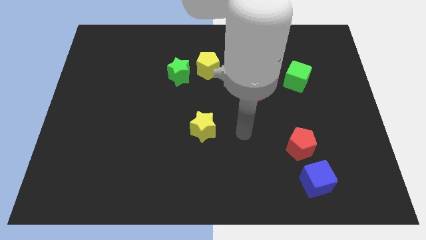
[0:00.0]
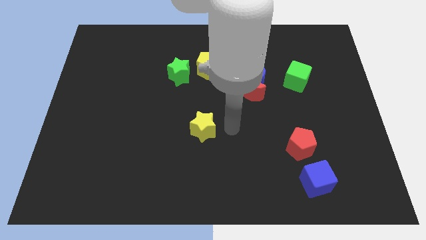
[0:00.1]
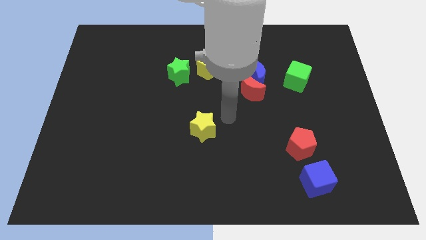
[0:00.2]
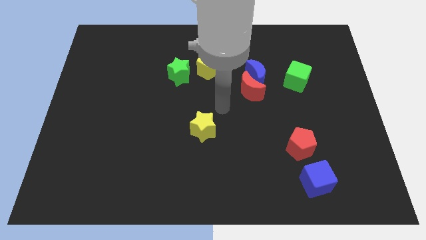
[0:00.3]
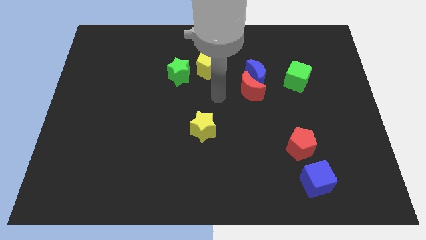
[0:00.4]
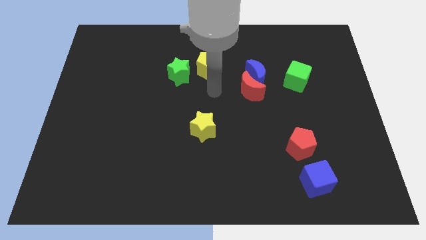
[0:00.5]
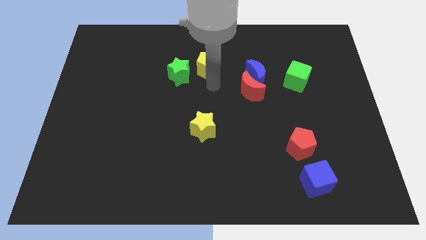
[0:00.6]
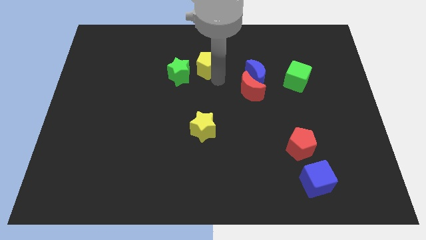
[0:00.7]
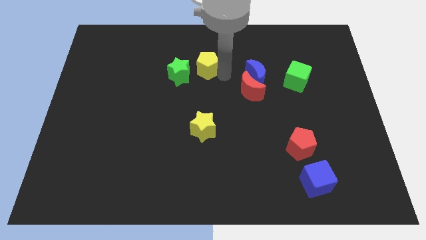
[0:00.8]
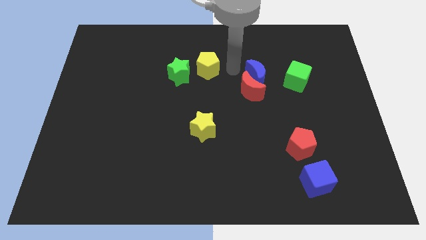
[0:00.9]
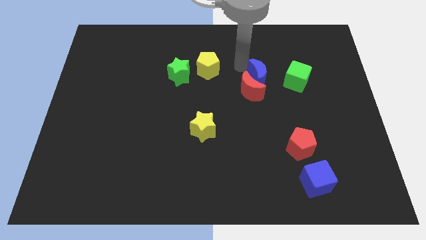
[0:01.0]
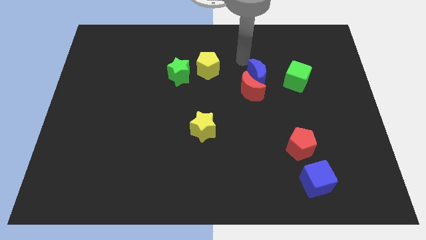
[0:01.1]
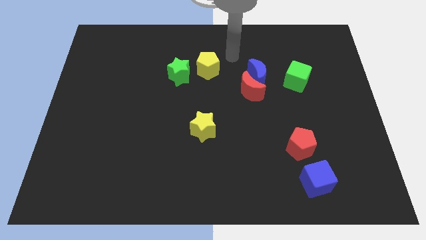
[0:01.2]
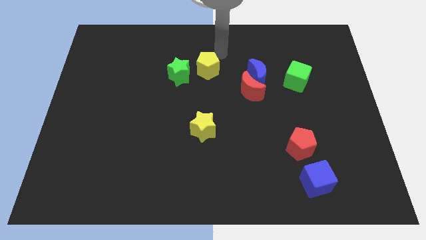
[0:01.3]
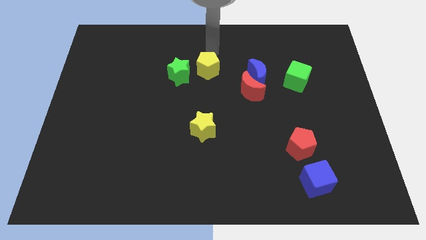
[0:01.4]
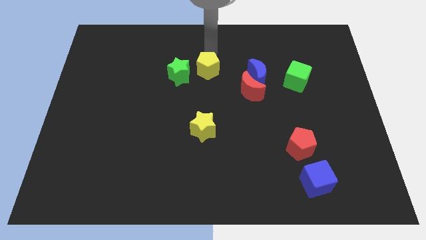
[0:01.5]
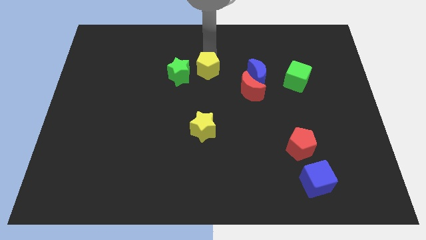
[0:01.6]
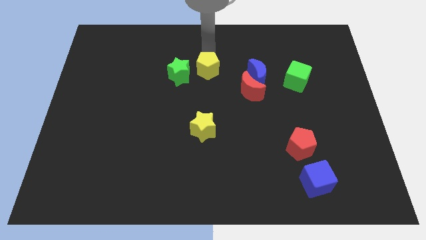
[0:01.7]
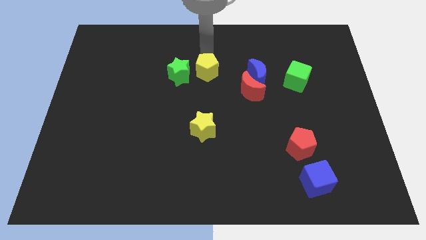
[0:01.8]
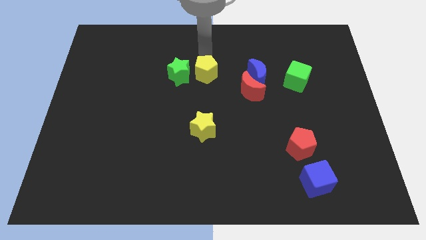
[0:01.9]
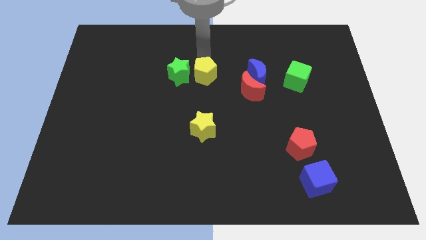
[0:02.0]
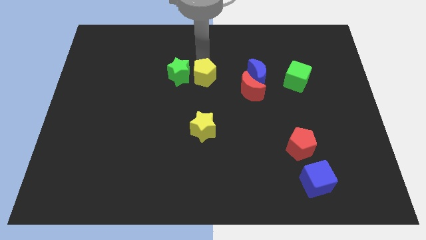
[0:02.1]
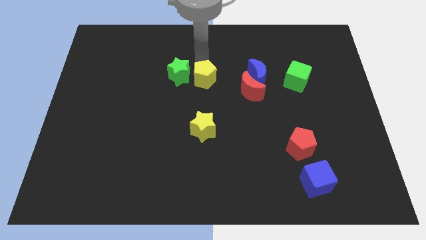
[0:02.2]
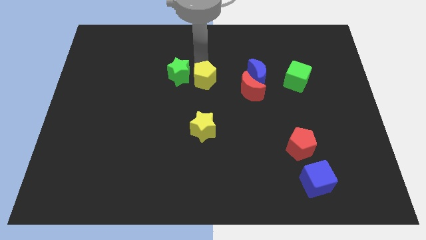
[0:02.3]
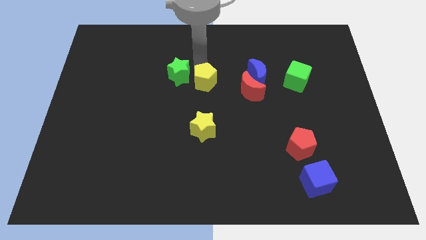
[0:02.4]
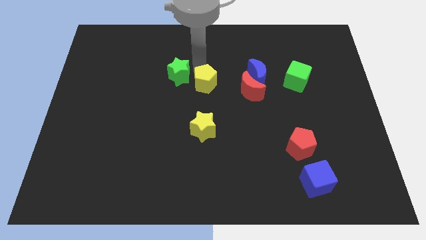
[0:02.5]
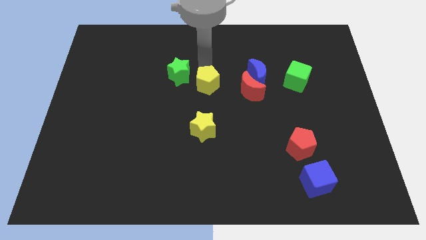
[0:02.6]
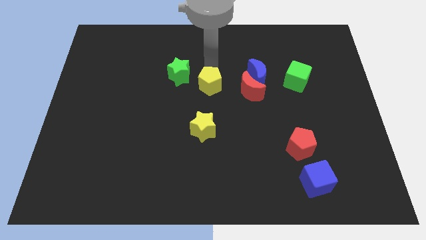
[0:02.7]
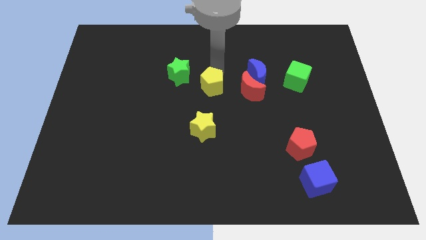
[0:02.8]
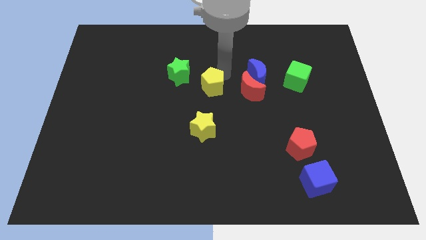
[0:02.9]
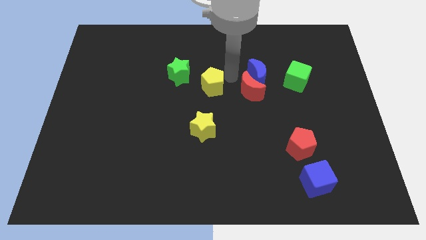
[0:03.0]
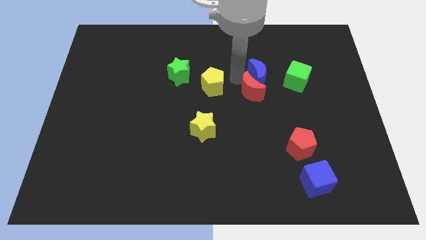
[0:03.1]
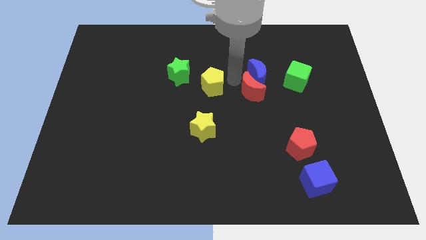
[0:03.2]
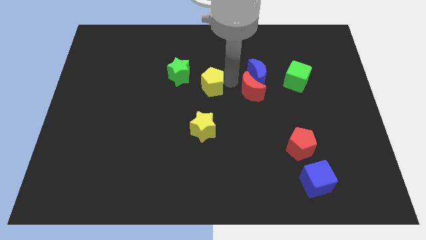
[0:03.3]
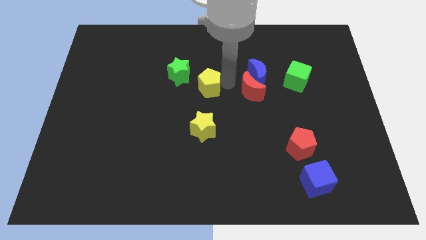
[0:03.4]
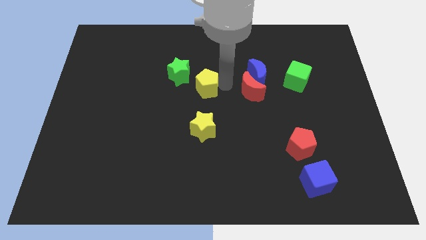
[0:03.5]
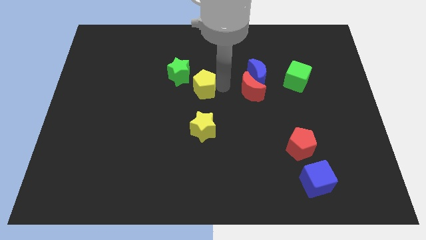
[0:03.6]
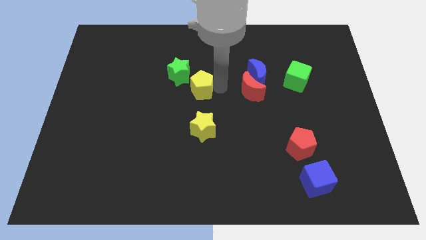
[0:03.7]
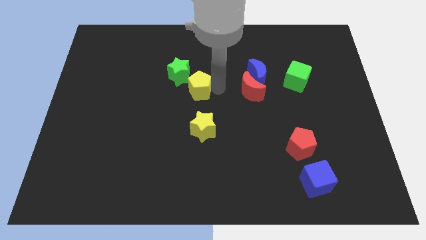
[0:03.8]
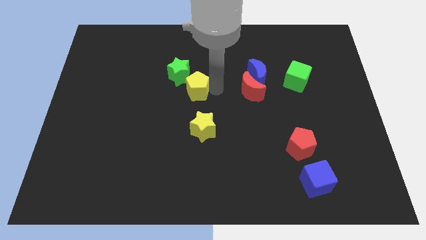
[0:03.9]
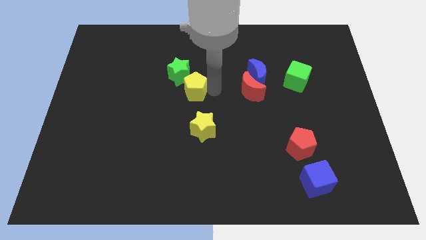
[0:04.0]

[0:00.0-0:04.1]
push the yellow pentagon down and then to the left a little bit

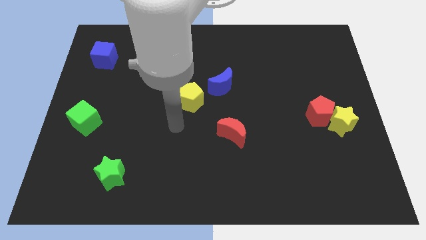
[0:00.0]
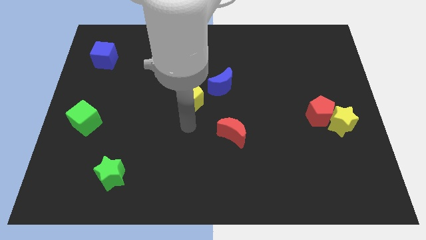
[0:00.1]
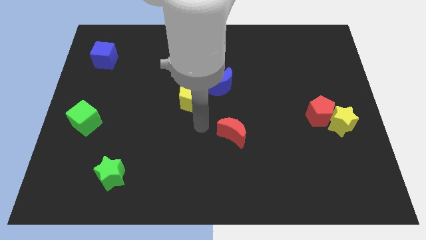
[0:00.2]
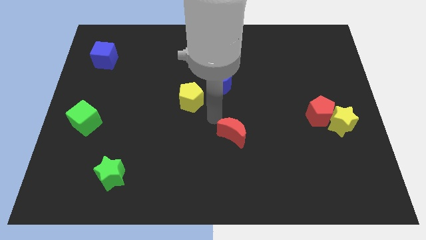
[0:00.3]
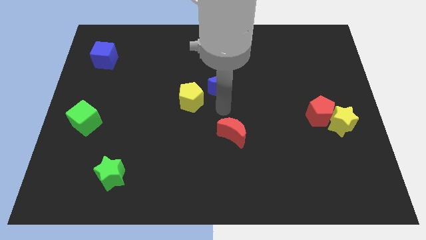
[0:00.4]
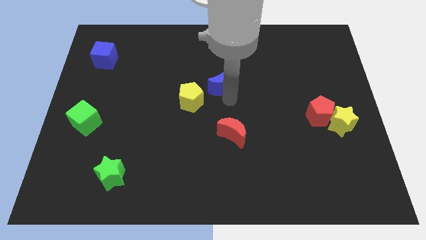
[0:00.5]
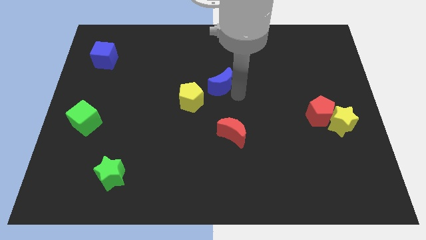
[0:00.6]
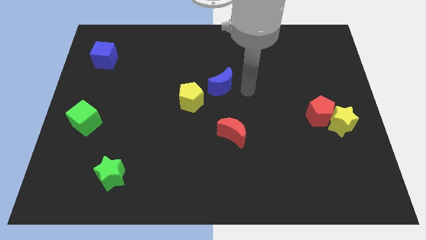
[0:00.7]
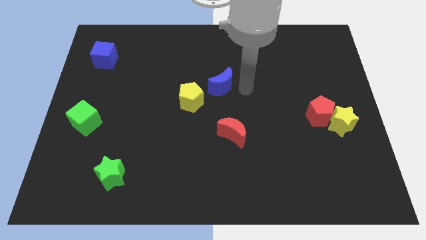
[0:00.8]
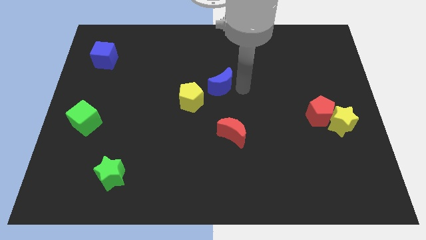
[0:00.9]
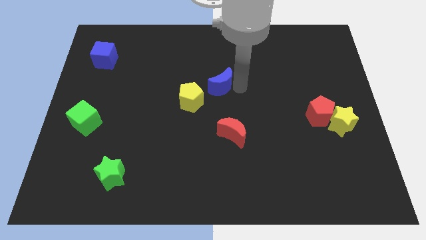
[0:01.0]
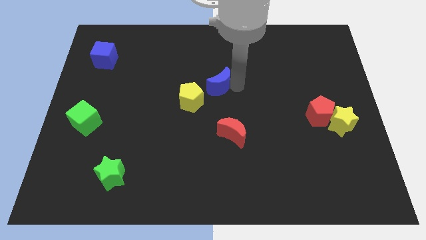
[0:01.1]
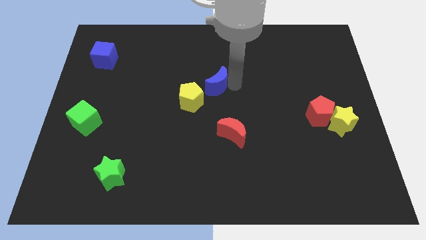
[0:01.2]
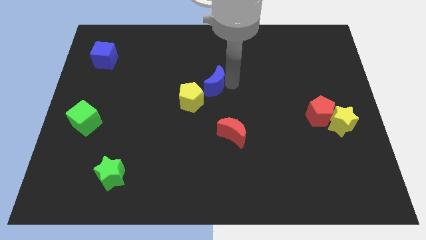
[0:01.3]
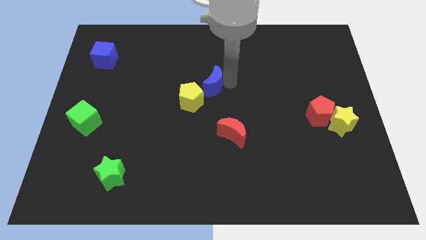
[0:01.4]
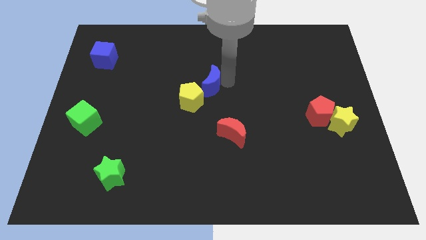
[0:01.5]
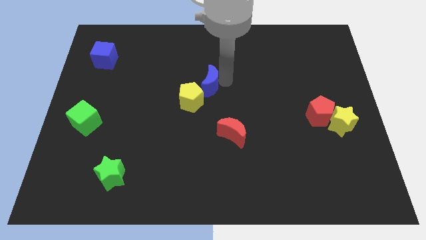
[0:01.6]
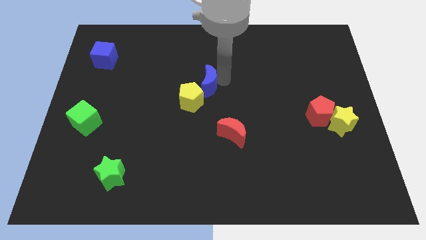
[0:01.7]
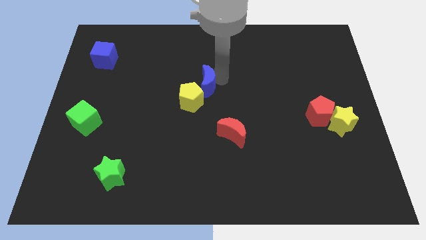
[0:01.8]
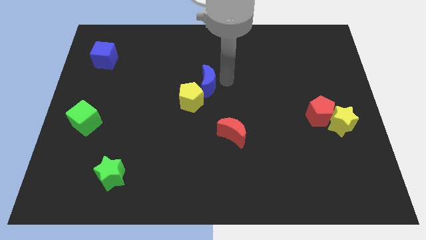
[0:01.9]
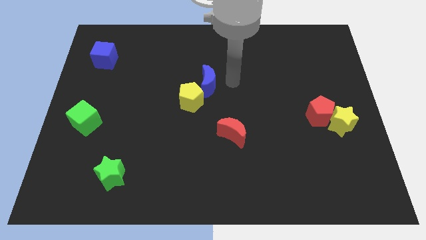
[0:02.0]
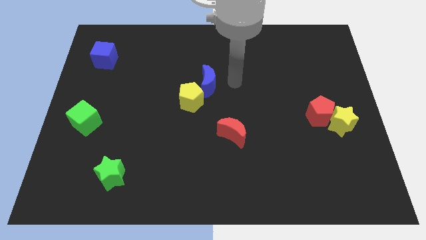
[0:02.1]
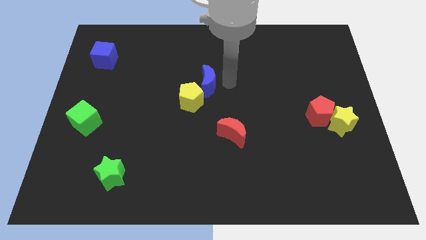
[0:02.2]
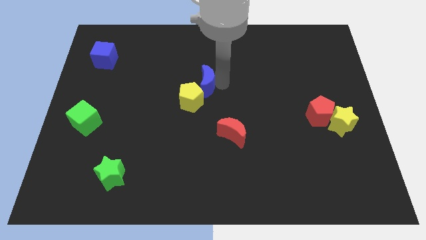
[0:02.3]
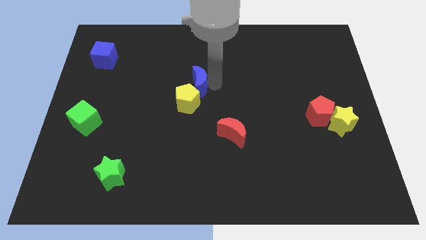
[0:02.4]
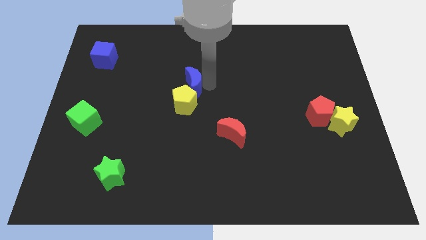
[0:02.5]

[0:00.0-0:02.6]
slide the blue moon left a little

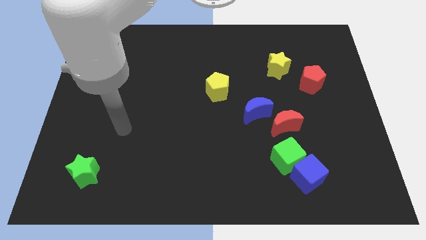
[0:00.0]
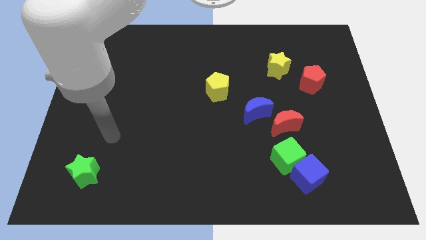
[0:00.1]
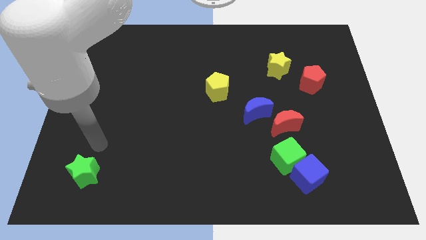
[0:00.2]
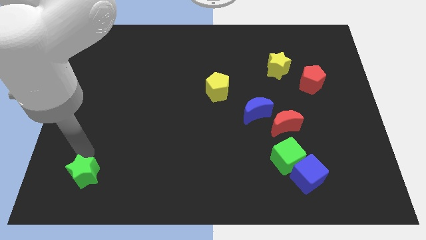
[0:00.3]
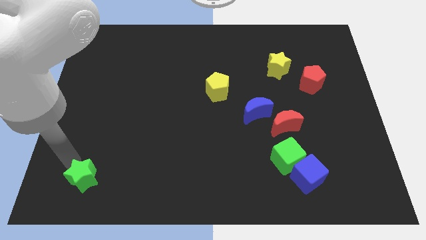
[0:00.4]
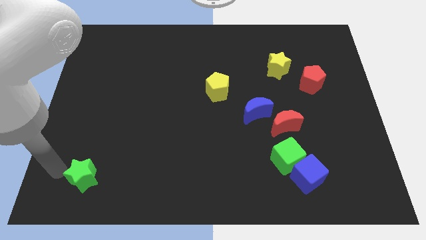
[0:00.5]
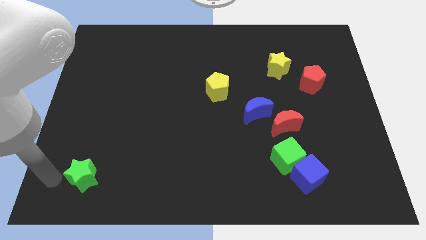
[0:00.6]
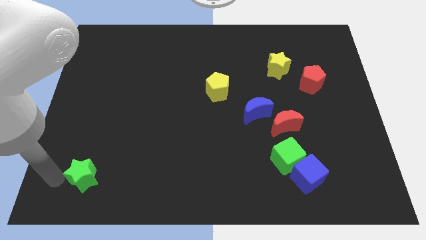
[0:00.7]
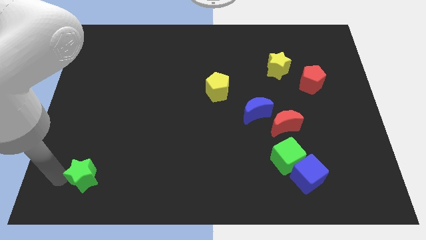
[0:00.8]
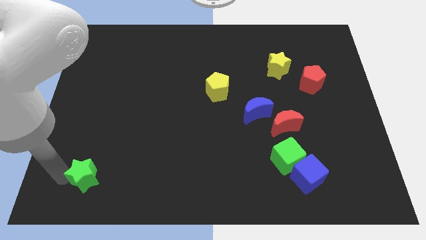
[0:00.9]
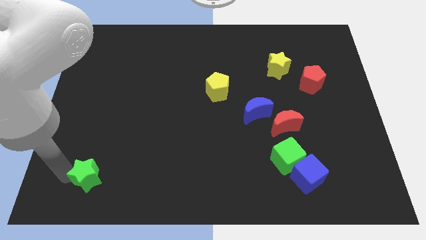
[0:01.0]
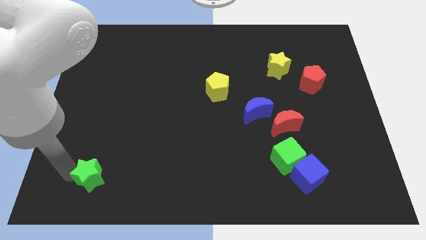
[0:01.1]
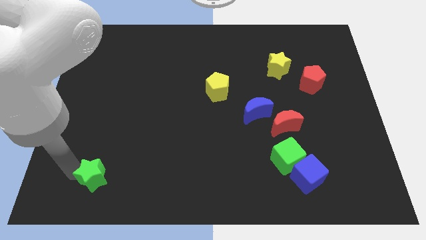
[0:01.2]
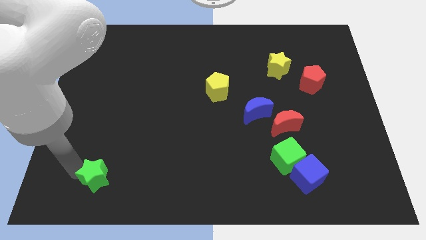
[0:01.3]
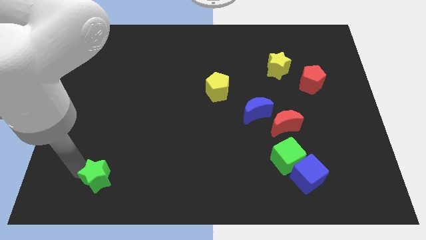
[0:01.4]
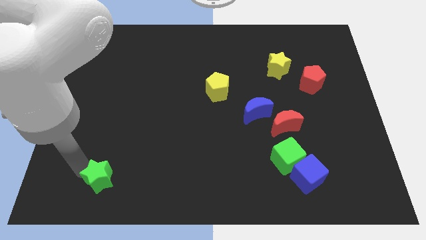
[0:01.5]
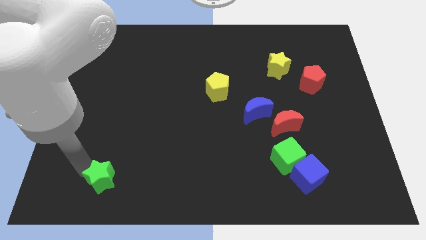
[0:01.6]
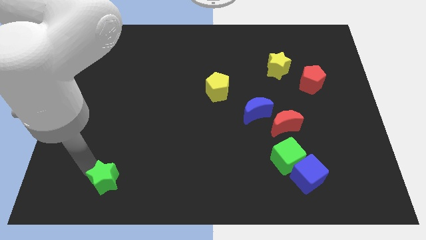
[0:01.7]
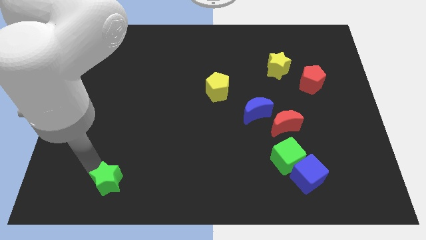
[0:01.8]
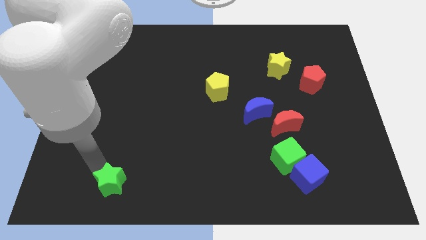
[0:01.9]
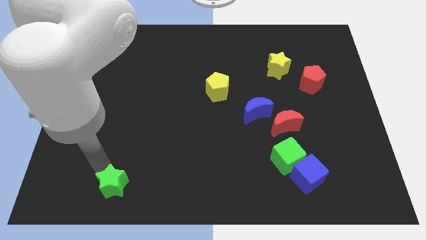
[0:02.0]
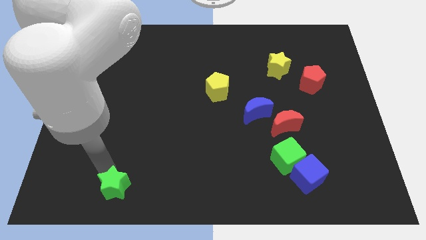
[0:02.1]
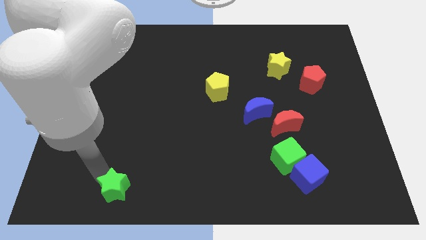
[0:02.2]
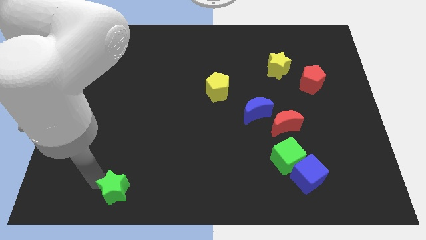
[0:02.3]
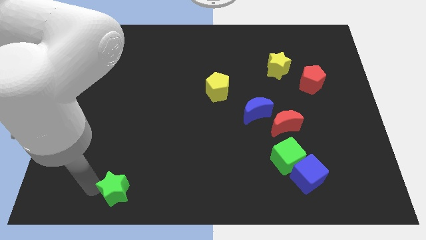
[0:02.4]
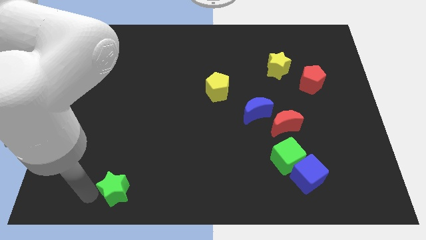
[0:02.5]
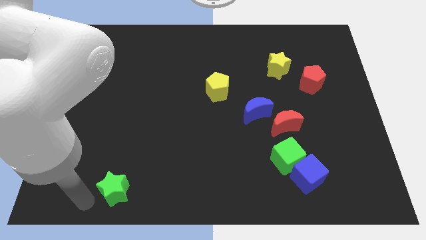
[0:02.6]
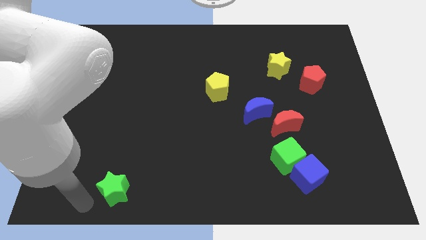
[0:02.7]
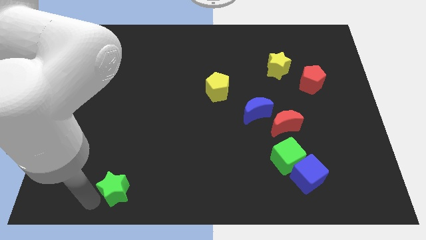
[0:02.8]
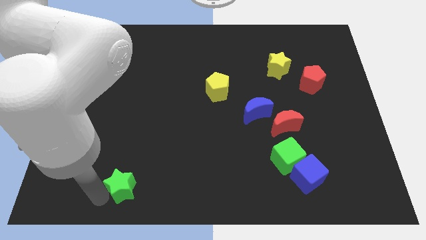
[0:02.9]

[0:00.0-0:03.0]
slightly move the green star to the right
